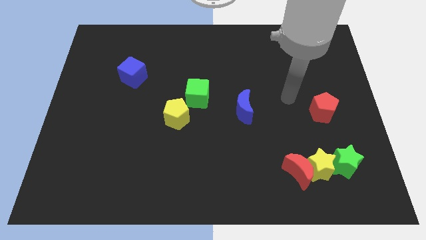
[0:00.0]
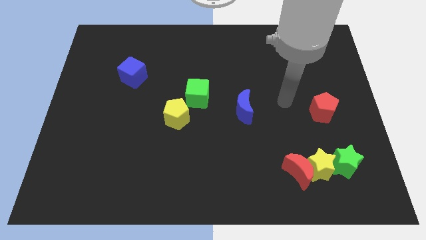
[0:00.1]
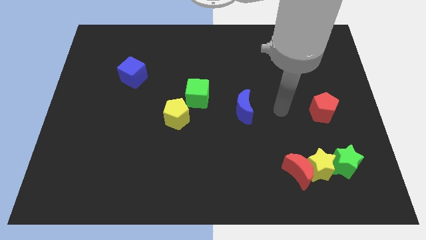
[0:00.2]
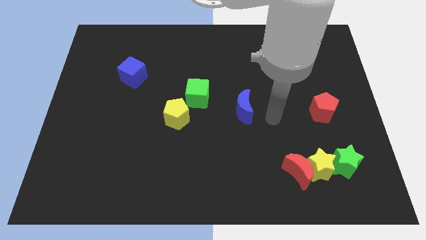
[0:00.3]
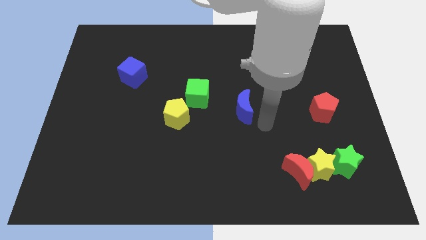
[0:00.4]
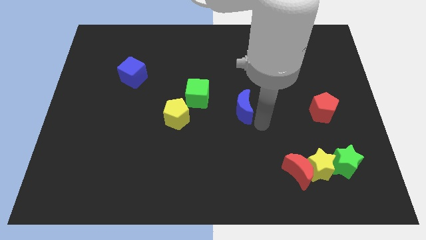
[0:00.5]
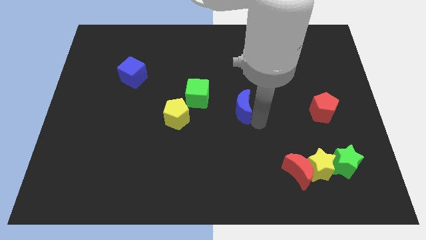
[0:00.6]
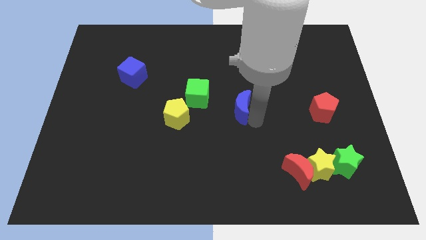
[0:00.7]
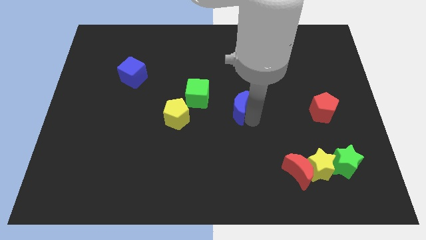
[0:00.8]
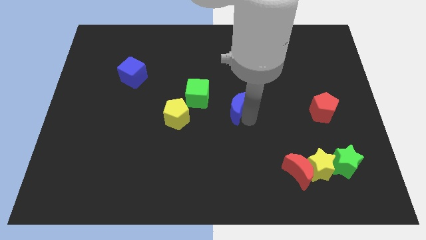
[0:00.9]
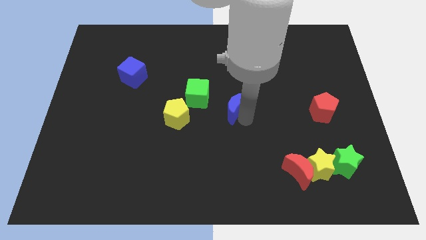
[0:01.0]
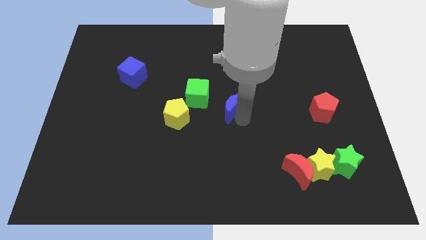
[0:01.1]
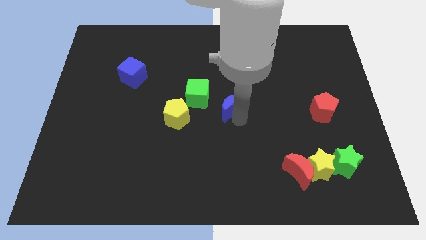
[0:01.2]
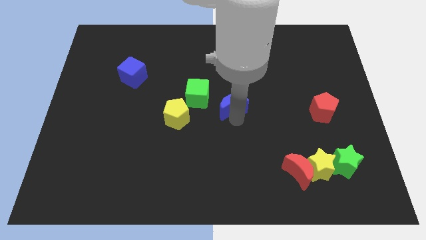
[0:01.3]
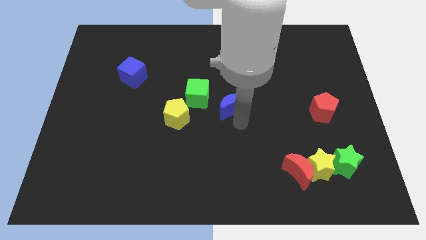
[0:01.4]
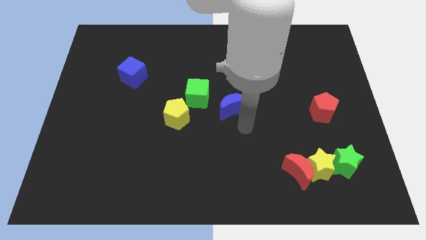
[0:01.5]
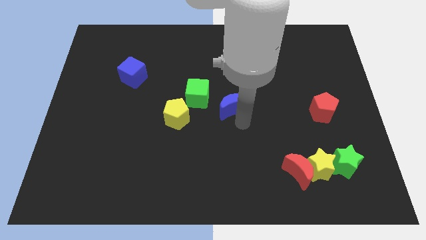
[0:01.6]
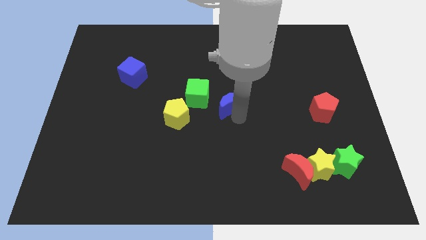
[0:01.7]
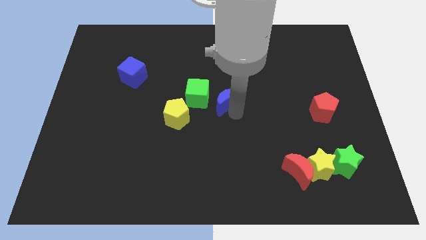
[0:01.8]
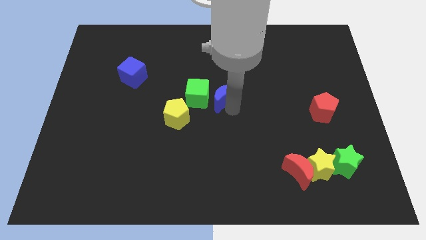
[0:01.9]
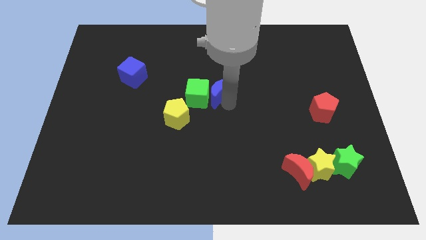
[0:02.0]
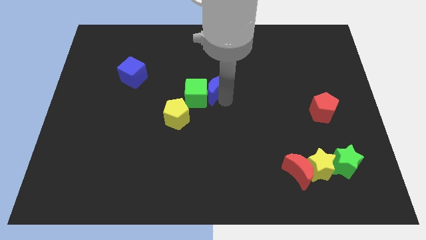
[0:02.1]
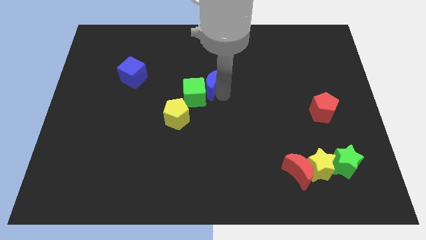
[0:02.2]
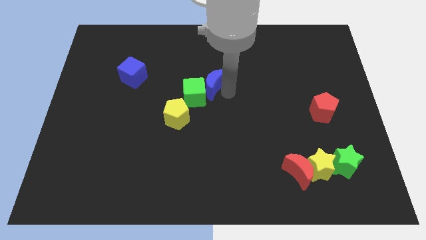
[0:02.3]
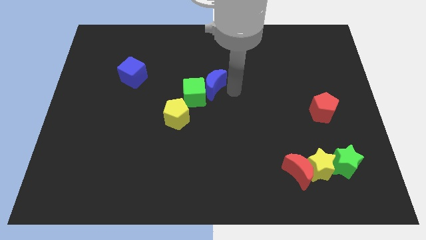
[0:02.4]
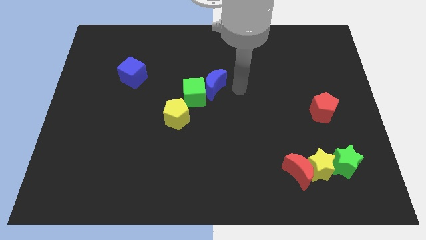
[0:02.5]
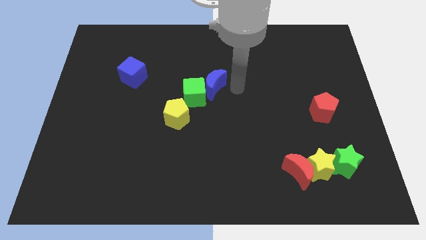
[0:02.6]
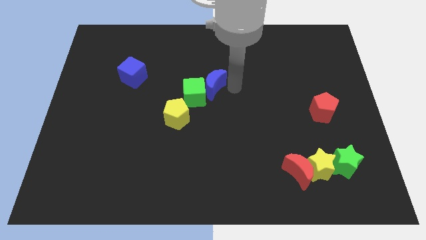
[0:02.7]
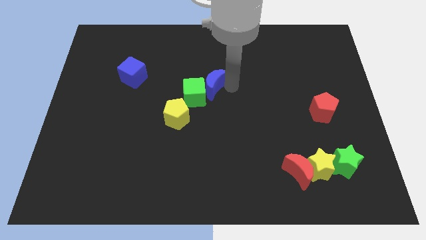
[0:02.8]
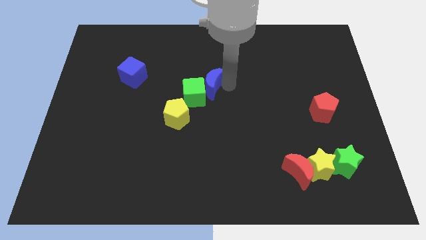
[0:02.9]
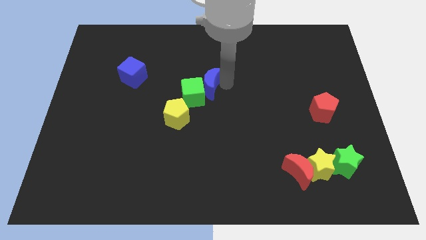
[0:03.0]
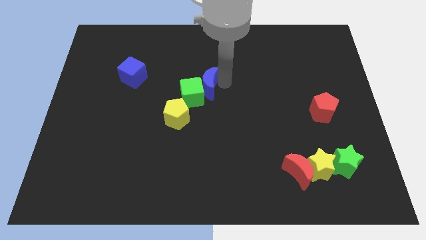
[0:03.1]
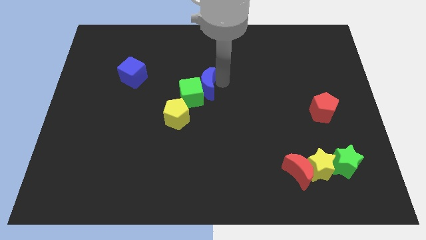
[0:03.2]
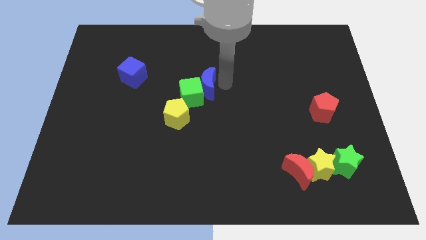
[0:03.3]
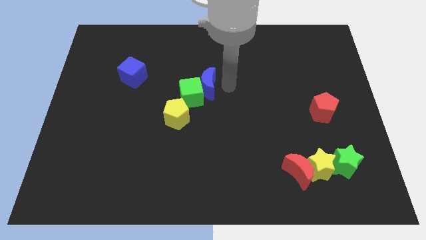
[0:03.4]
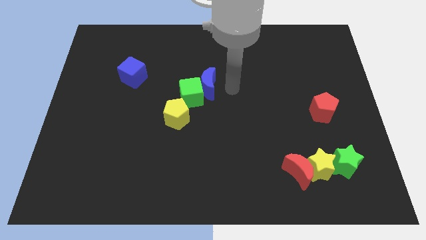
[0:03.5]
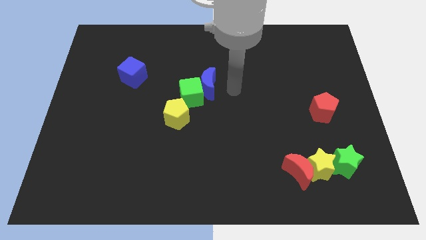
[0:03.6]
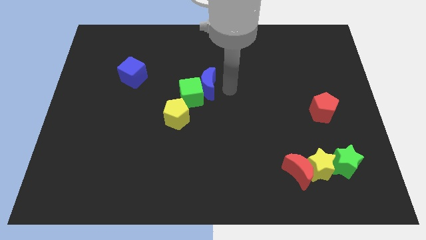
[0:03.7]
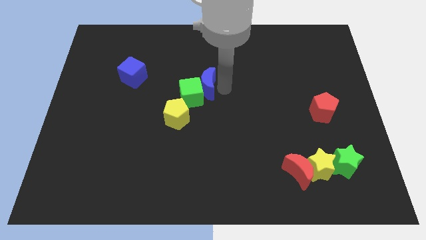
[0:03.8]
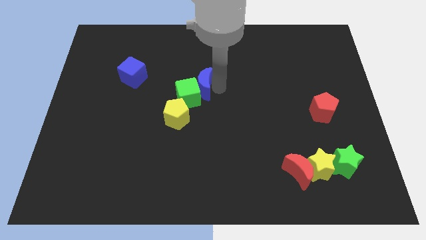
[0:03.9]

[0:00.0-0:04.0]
push the blue moon left a little bit

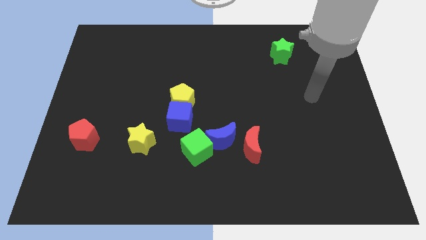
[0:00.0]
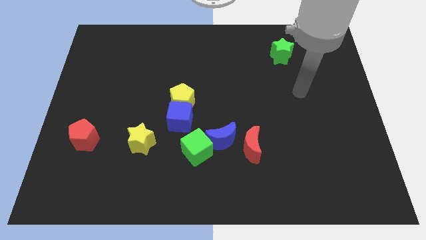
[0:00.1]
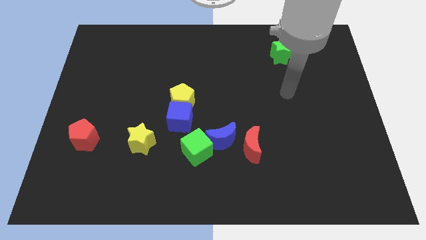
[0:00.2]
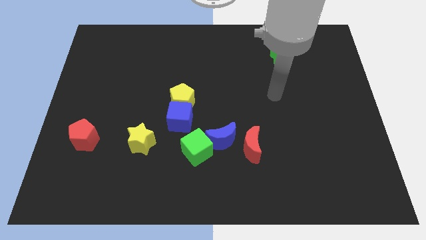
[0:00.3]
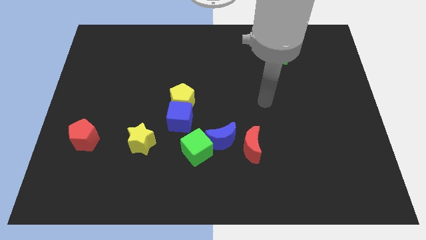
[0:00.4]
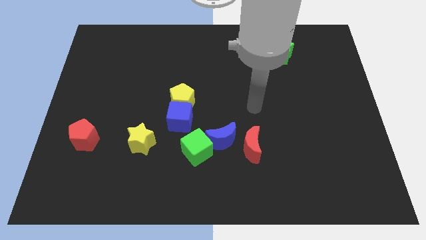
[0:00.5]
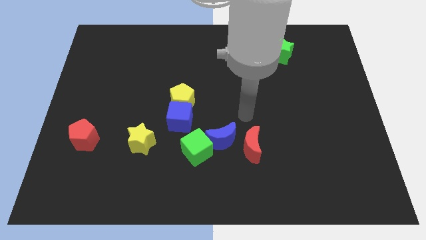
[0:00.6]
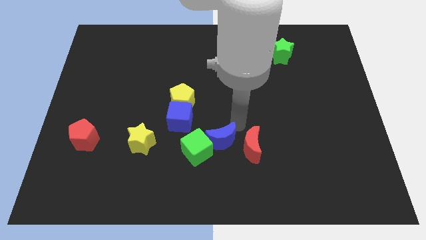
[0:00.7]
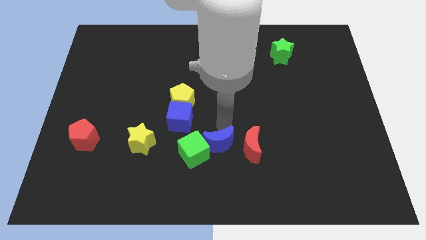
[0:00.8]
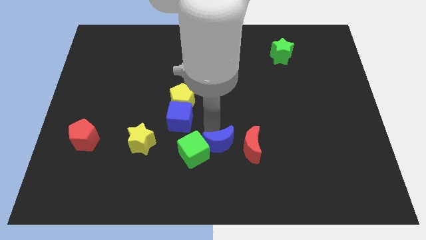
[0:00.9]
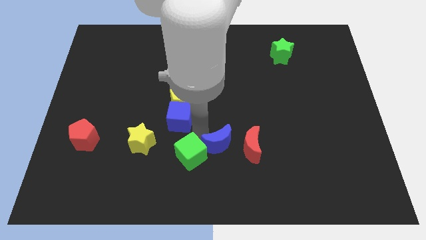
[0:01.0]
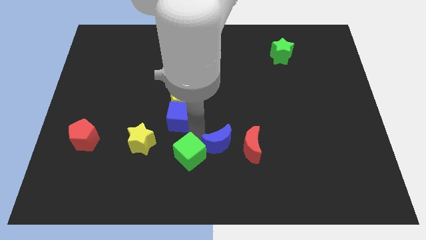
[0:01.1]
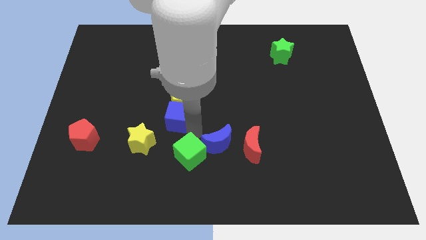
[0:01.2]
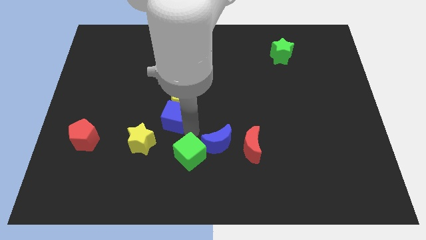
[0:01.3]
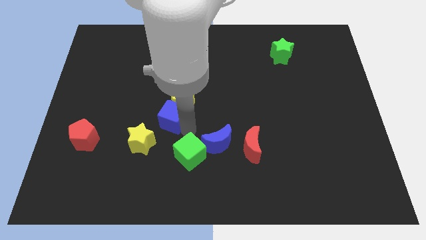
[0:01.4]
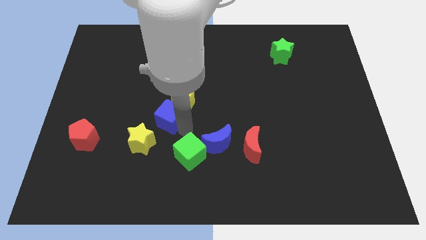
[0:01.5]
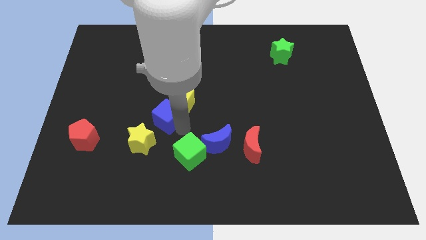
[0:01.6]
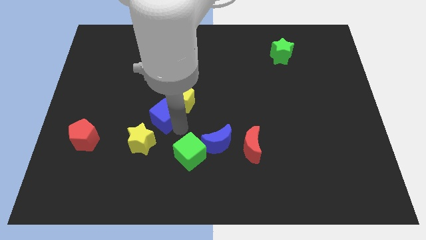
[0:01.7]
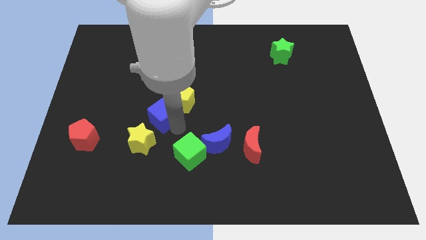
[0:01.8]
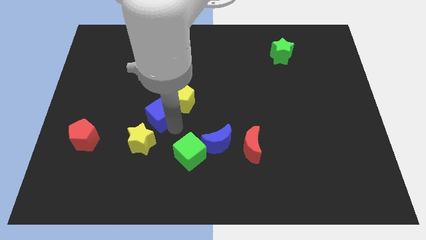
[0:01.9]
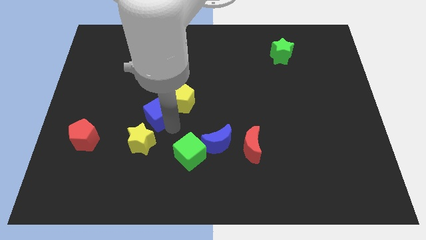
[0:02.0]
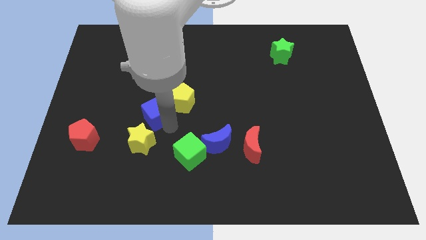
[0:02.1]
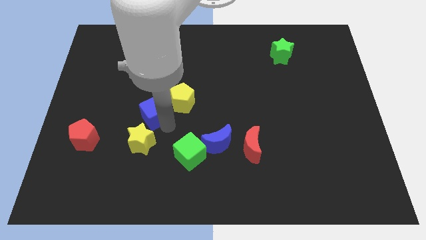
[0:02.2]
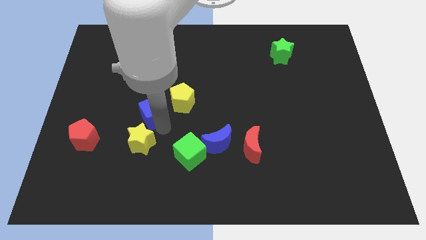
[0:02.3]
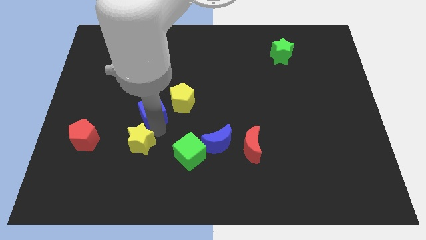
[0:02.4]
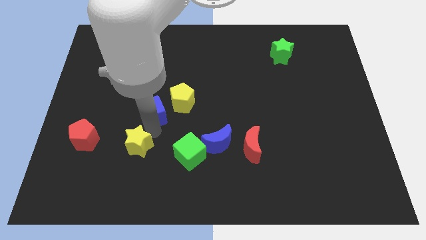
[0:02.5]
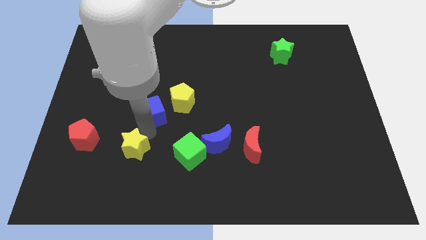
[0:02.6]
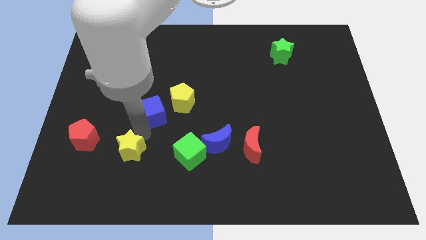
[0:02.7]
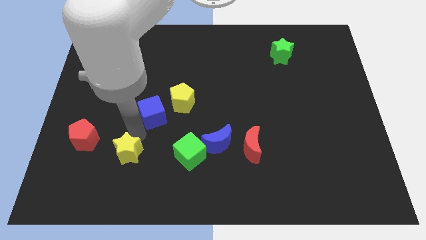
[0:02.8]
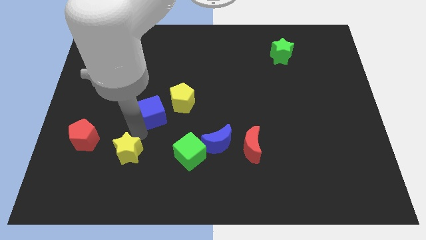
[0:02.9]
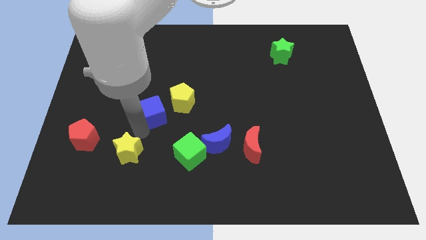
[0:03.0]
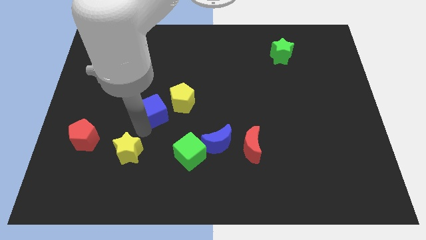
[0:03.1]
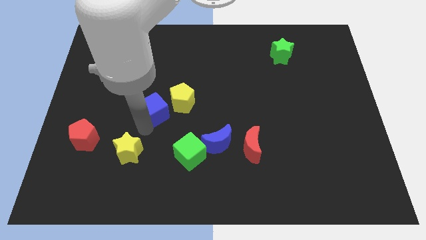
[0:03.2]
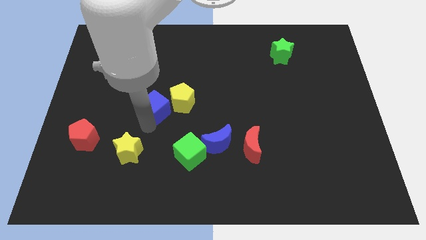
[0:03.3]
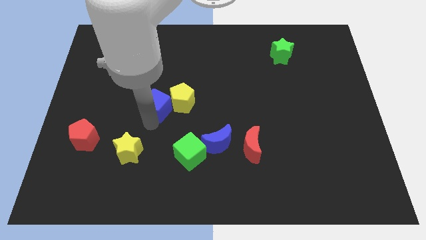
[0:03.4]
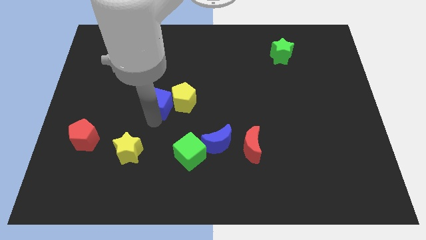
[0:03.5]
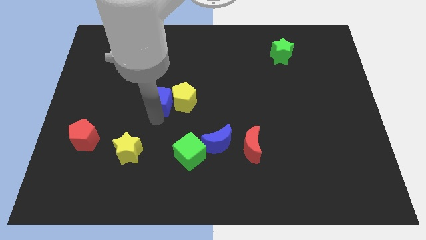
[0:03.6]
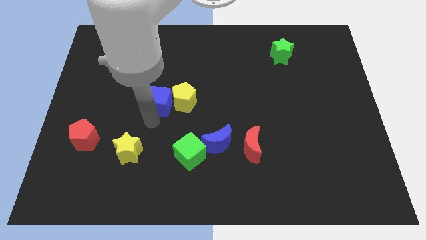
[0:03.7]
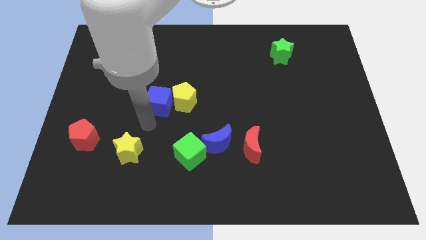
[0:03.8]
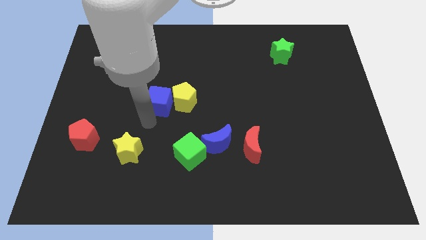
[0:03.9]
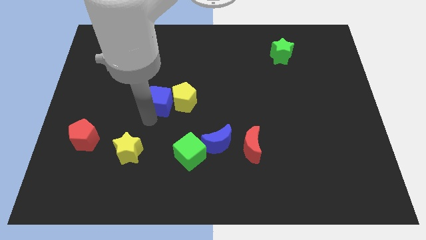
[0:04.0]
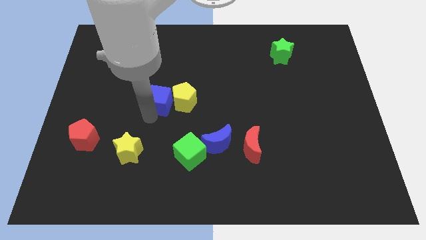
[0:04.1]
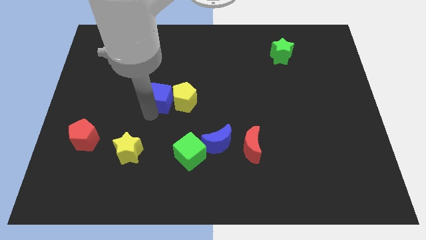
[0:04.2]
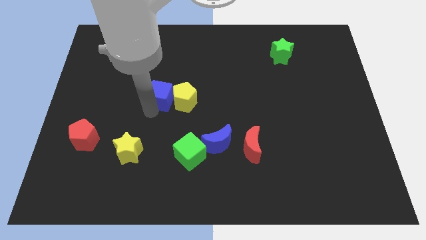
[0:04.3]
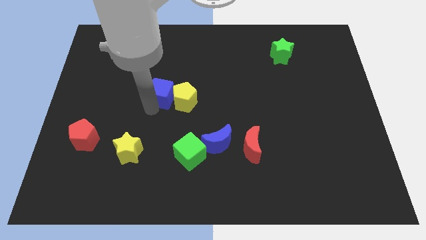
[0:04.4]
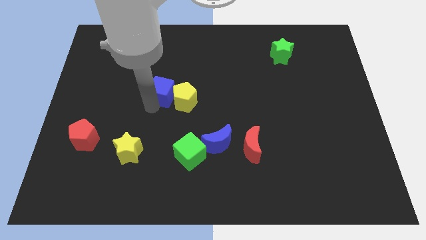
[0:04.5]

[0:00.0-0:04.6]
slightly push the blue cube up
